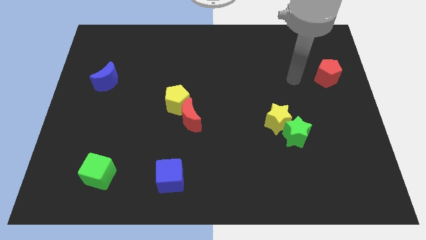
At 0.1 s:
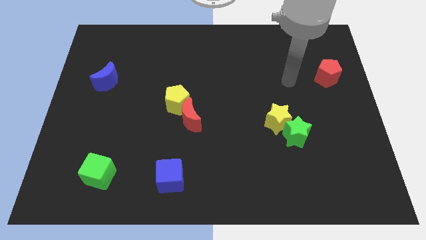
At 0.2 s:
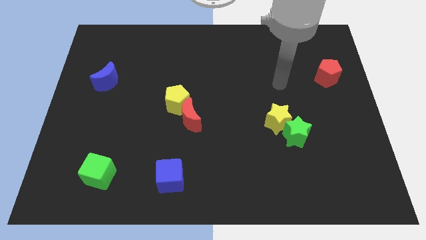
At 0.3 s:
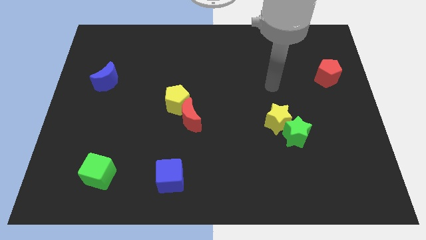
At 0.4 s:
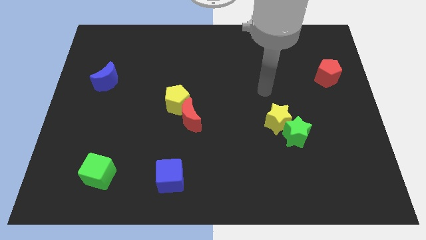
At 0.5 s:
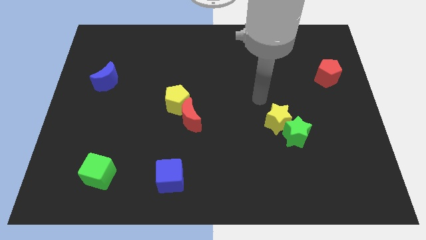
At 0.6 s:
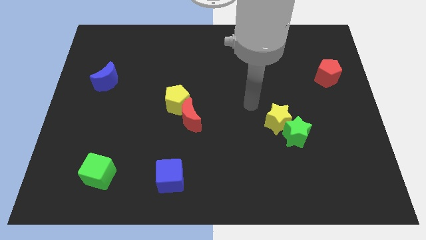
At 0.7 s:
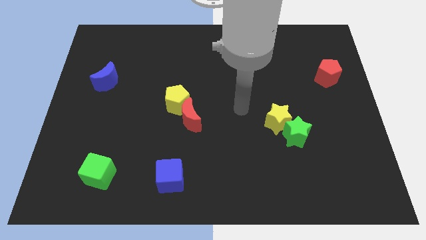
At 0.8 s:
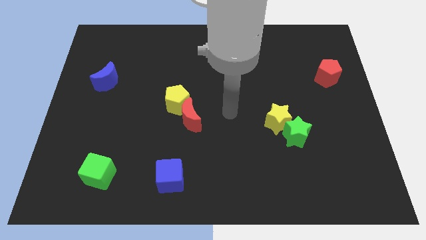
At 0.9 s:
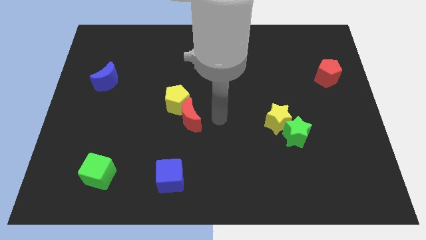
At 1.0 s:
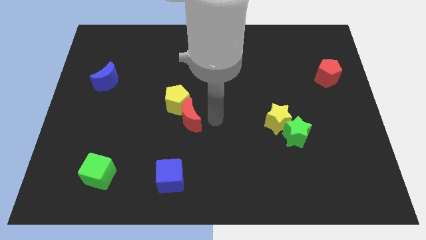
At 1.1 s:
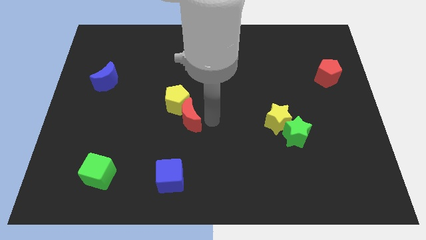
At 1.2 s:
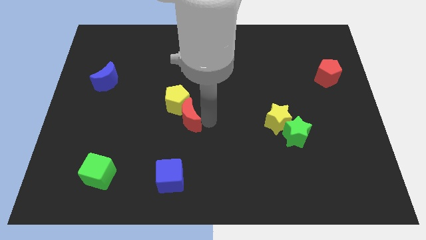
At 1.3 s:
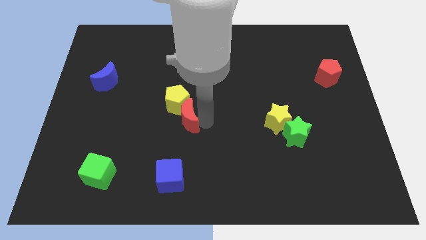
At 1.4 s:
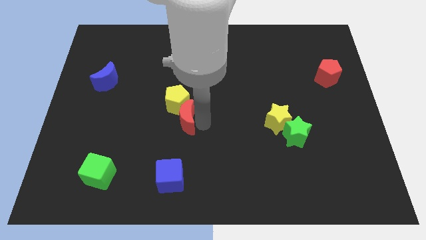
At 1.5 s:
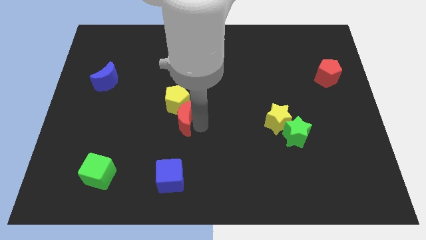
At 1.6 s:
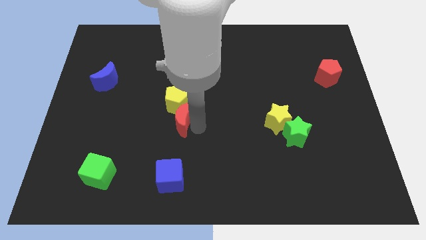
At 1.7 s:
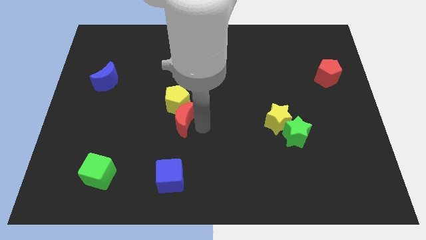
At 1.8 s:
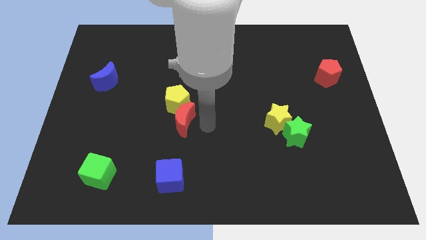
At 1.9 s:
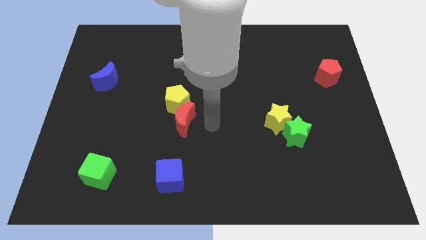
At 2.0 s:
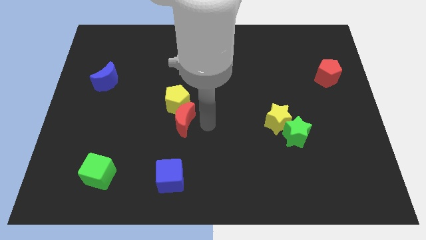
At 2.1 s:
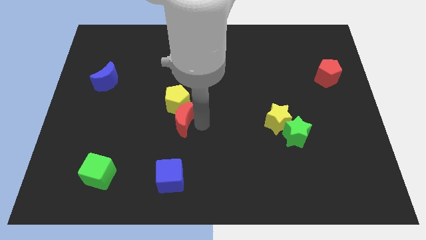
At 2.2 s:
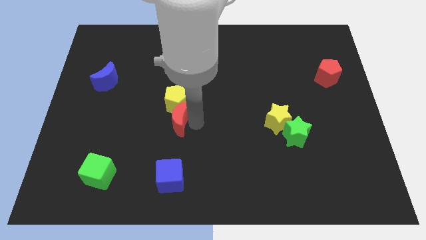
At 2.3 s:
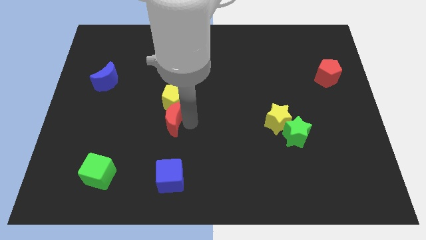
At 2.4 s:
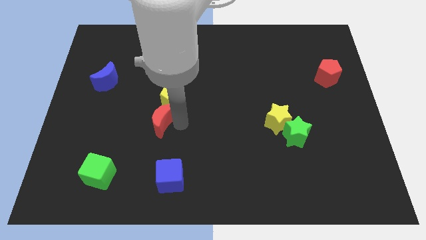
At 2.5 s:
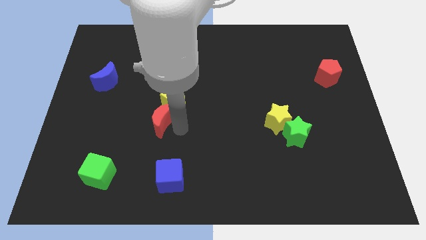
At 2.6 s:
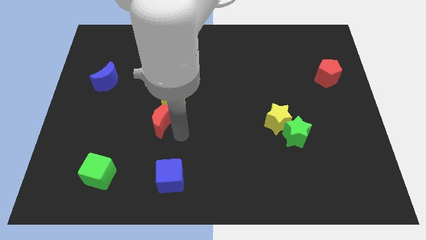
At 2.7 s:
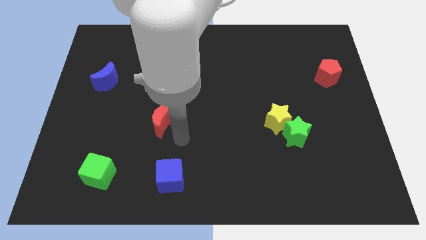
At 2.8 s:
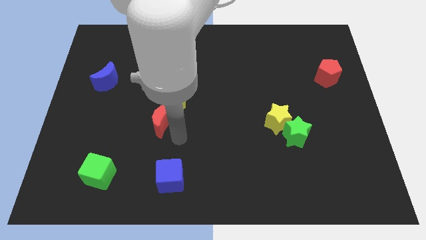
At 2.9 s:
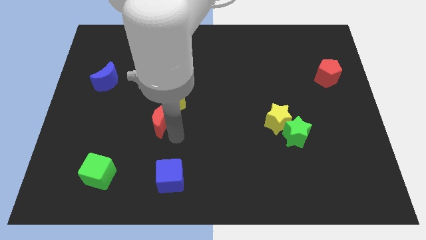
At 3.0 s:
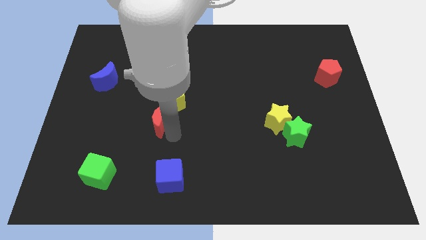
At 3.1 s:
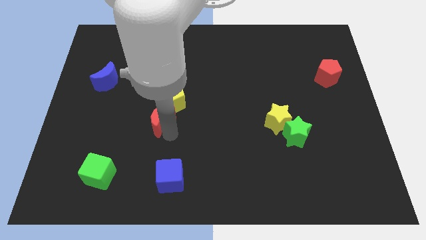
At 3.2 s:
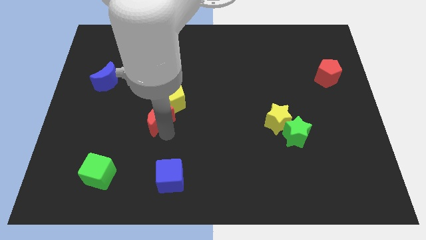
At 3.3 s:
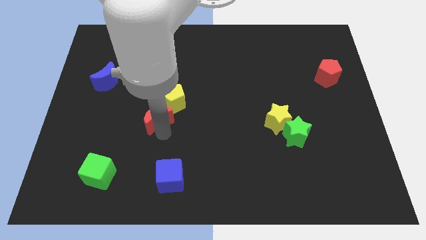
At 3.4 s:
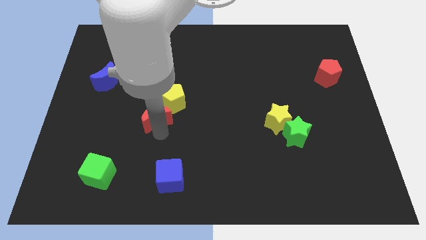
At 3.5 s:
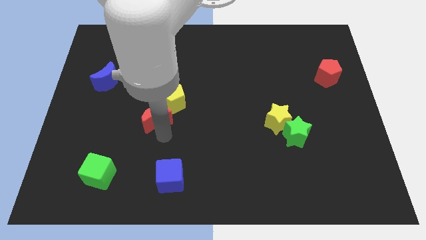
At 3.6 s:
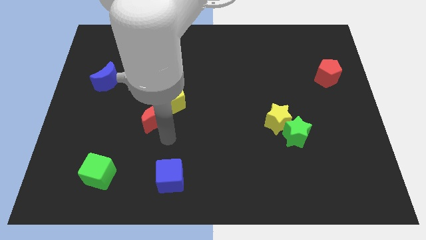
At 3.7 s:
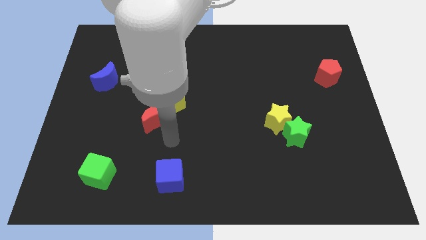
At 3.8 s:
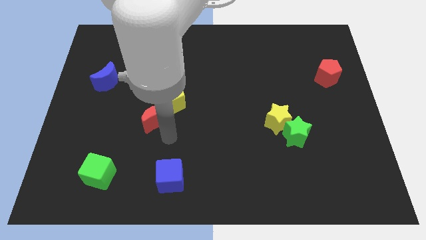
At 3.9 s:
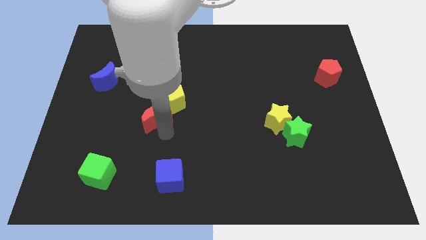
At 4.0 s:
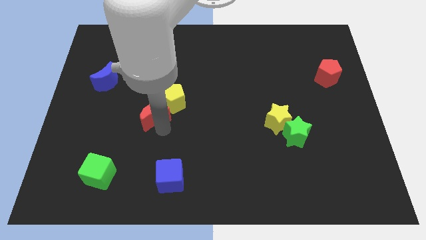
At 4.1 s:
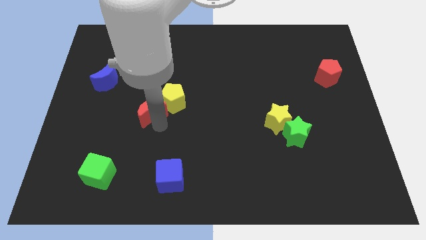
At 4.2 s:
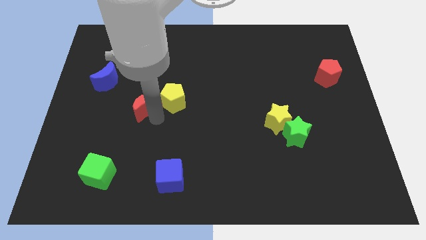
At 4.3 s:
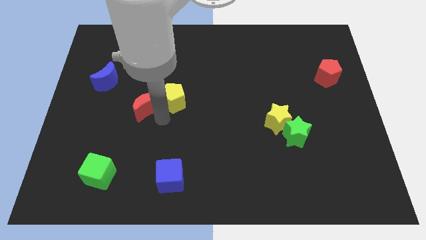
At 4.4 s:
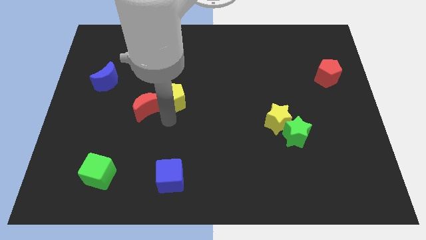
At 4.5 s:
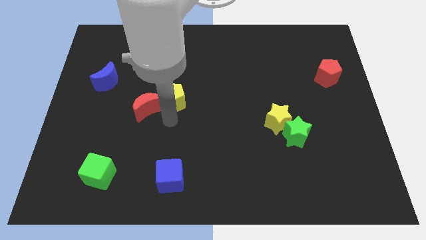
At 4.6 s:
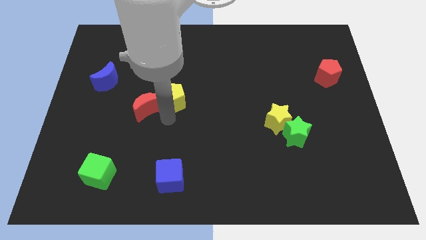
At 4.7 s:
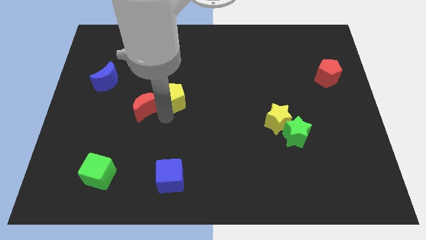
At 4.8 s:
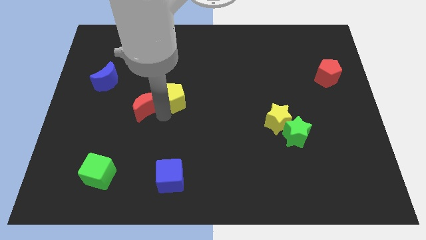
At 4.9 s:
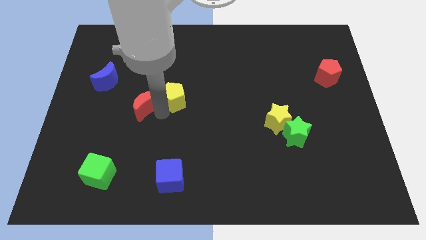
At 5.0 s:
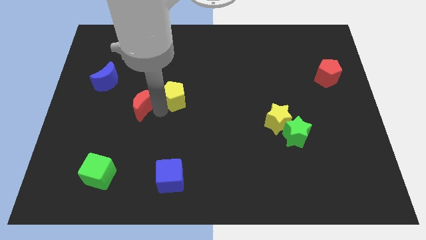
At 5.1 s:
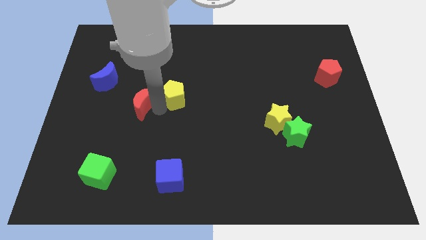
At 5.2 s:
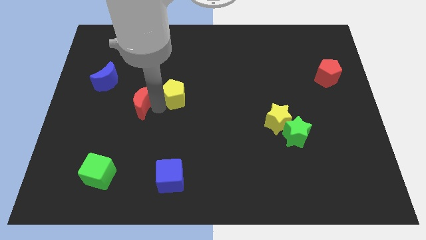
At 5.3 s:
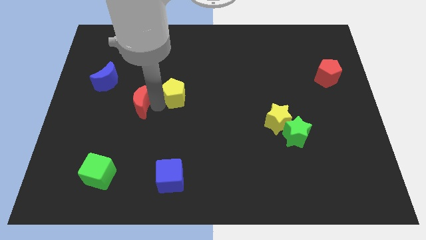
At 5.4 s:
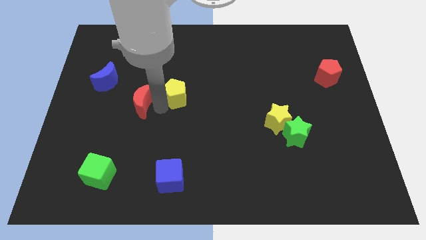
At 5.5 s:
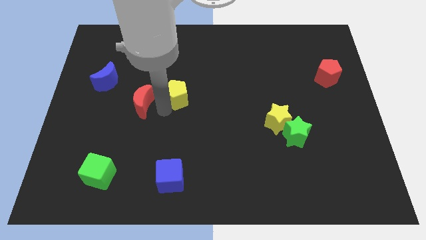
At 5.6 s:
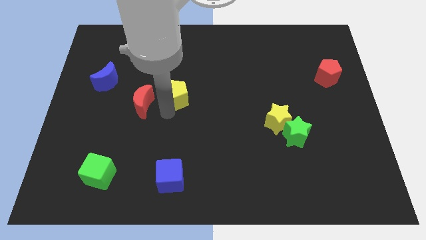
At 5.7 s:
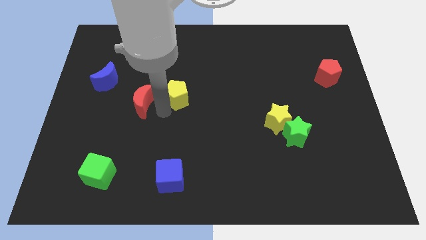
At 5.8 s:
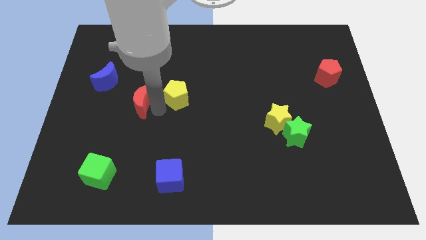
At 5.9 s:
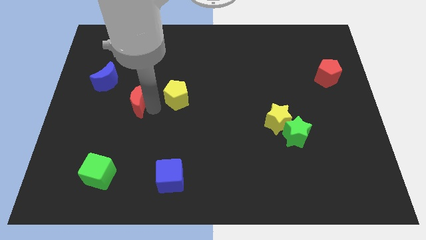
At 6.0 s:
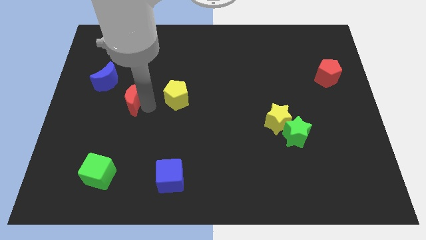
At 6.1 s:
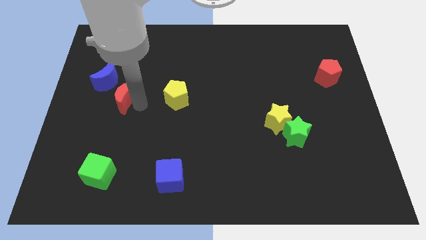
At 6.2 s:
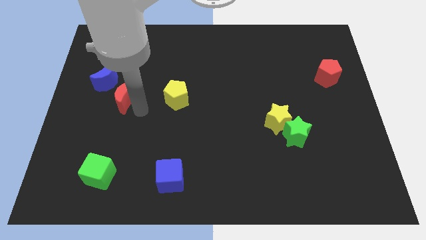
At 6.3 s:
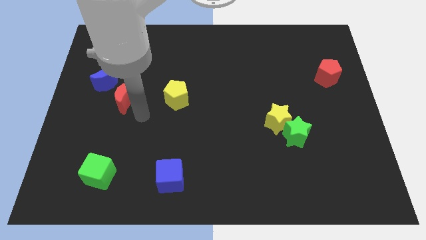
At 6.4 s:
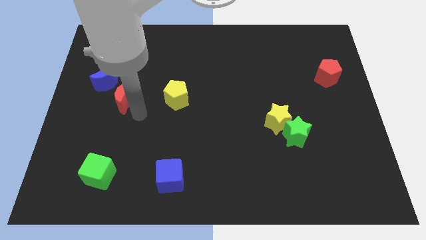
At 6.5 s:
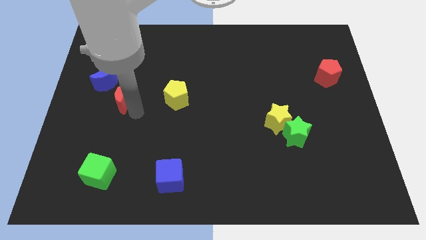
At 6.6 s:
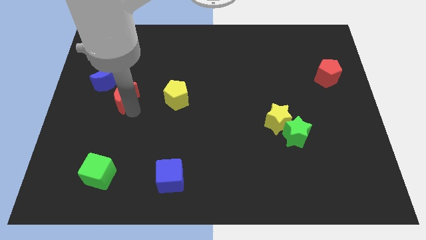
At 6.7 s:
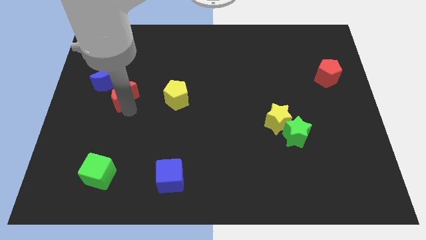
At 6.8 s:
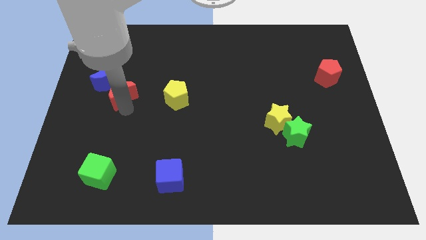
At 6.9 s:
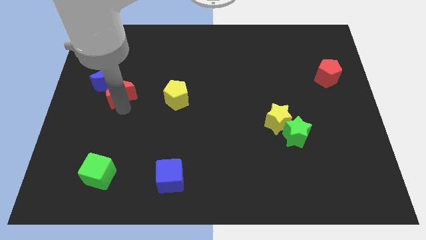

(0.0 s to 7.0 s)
slide the red moon towards the blue moon
